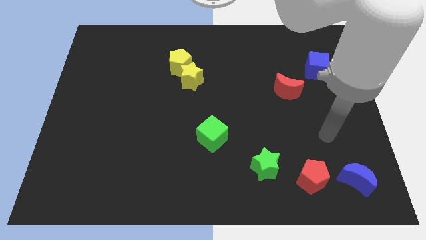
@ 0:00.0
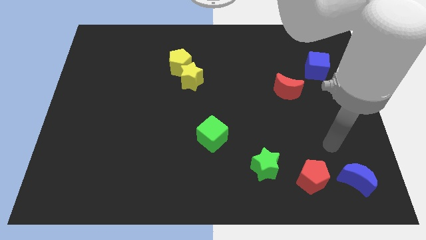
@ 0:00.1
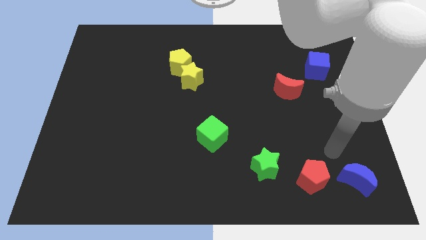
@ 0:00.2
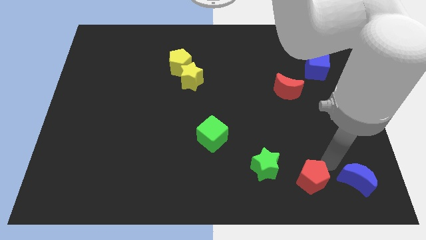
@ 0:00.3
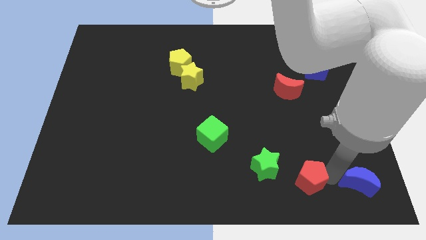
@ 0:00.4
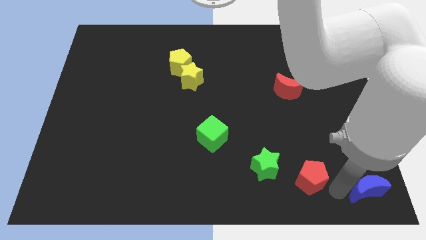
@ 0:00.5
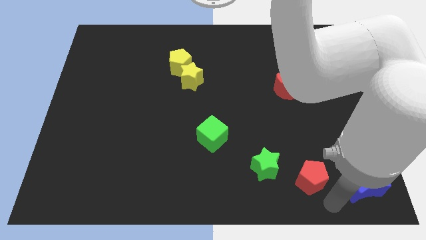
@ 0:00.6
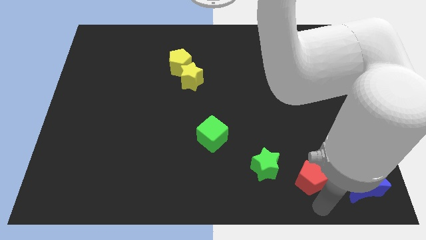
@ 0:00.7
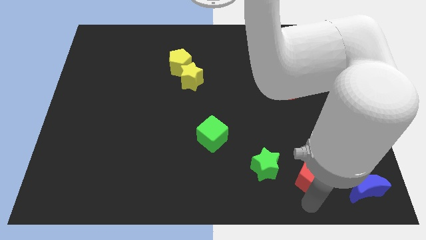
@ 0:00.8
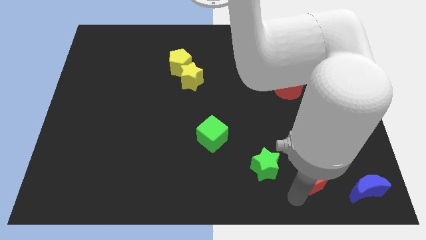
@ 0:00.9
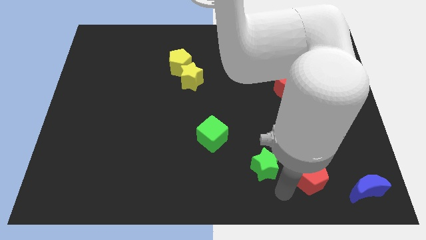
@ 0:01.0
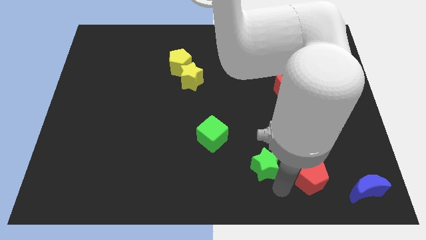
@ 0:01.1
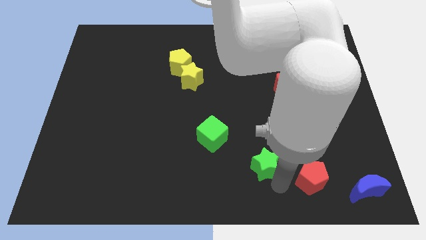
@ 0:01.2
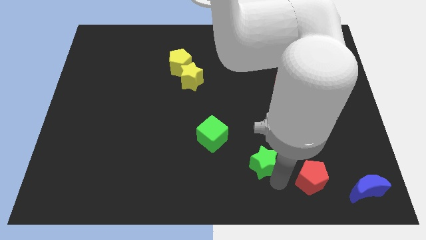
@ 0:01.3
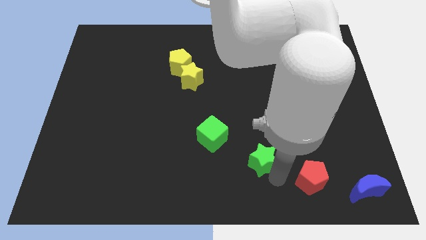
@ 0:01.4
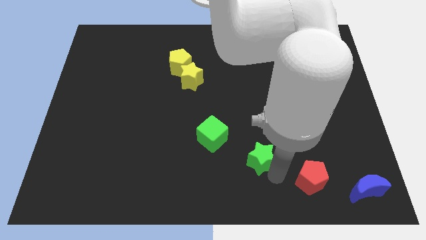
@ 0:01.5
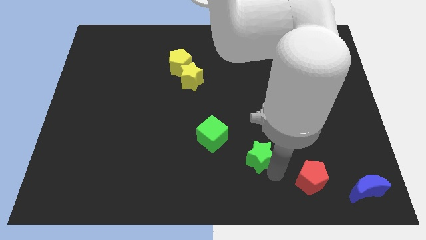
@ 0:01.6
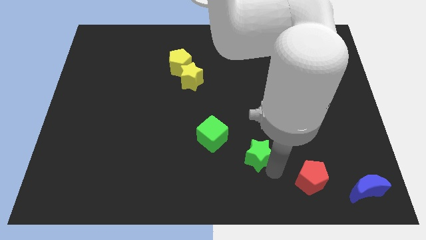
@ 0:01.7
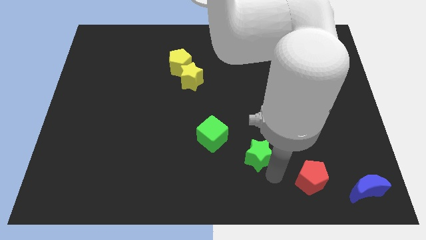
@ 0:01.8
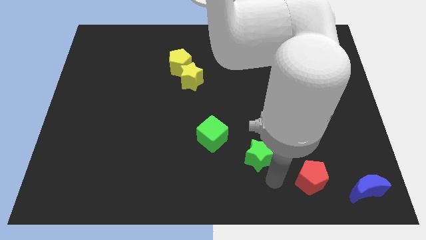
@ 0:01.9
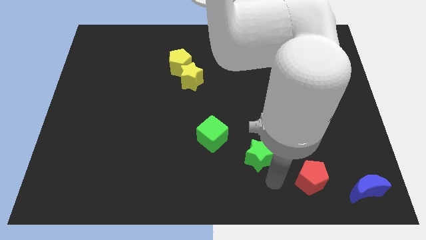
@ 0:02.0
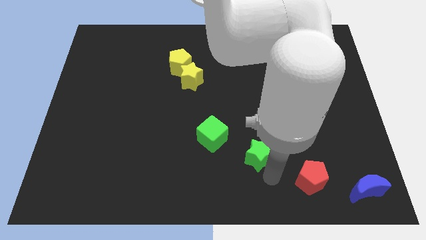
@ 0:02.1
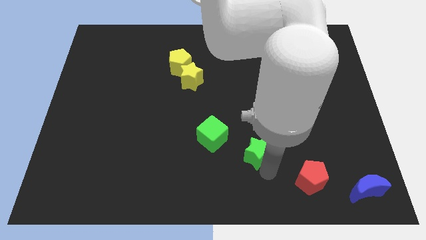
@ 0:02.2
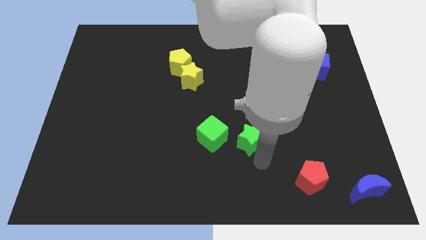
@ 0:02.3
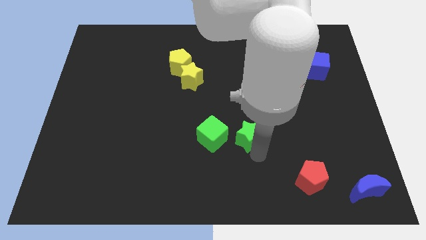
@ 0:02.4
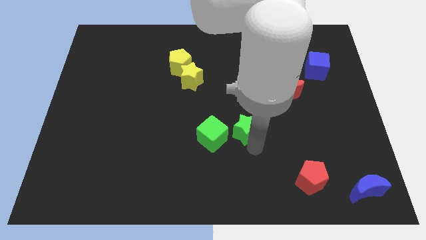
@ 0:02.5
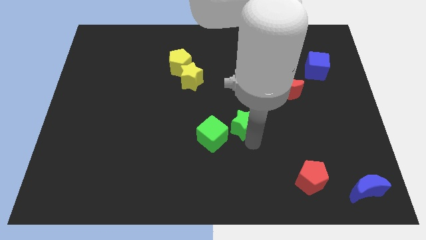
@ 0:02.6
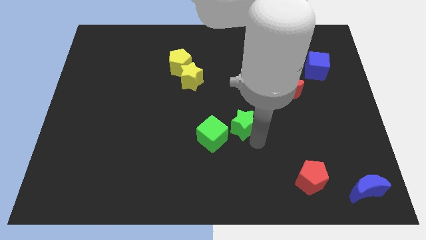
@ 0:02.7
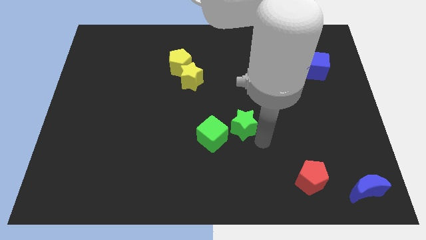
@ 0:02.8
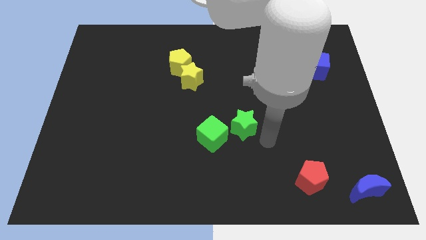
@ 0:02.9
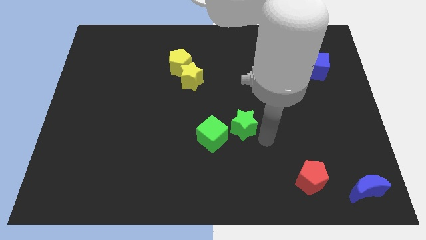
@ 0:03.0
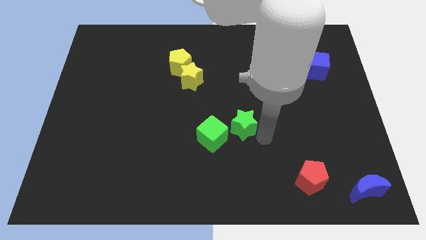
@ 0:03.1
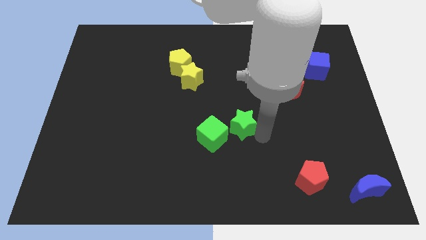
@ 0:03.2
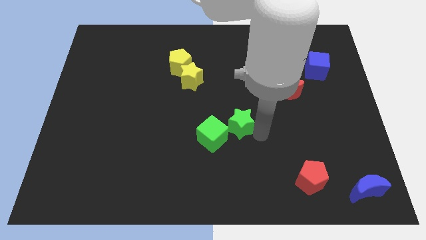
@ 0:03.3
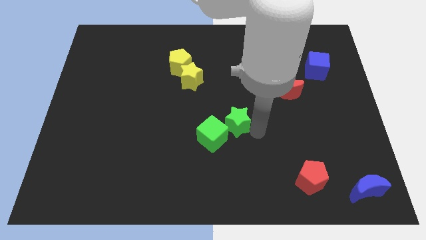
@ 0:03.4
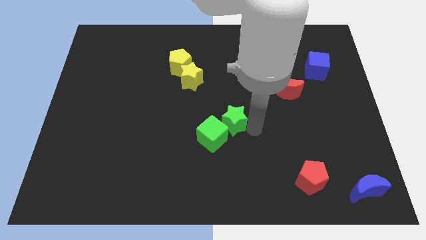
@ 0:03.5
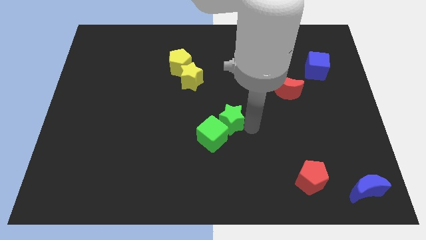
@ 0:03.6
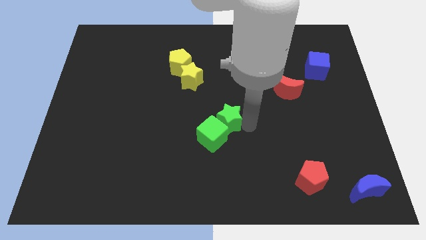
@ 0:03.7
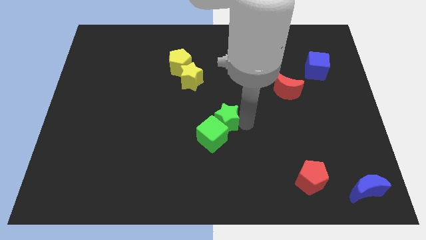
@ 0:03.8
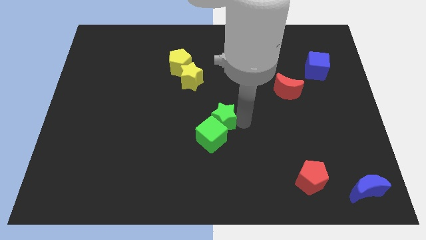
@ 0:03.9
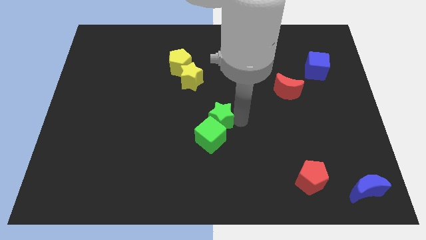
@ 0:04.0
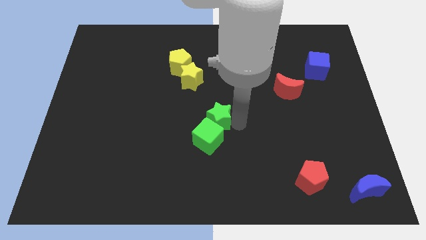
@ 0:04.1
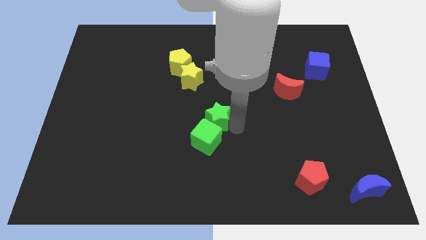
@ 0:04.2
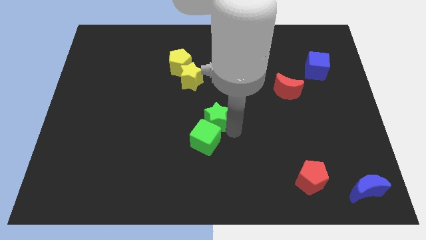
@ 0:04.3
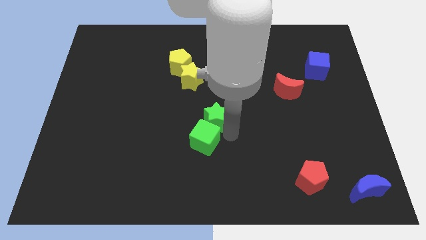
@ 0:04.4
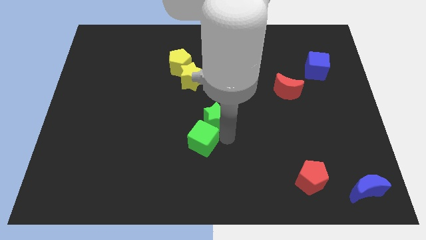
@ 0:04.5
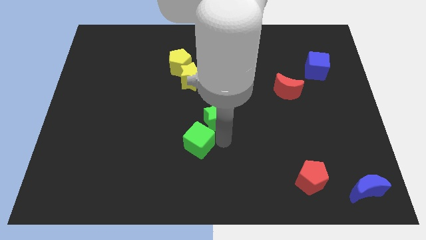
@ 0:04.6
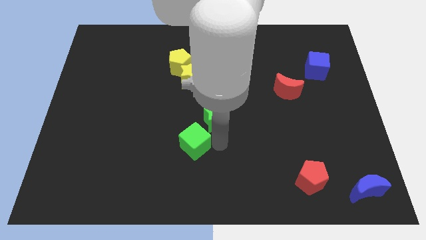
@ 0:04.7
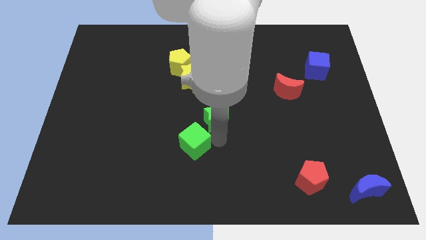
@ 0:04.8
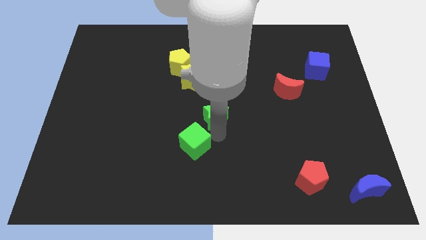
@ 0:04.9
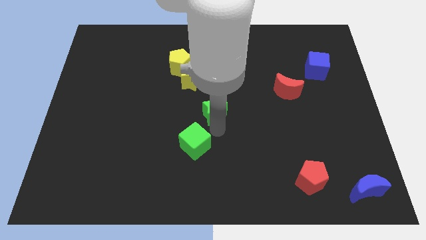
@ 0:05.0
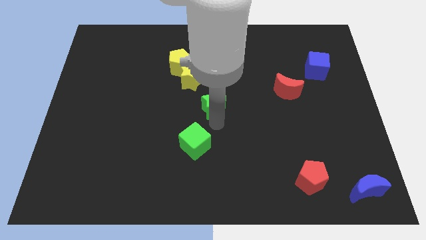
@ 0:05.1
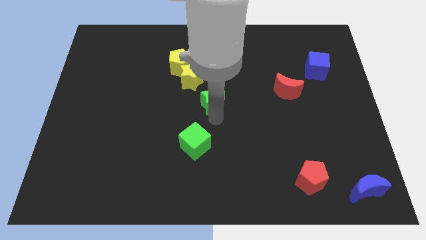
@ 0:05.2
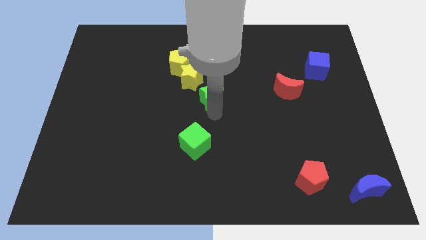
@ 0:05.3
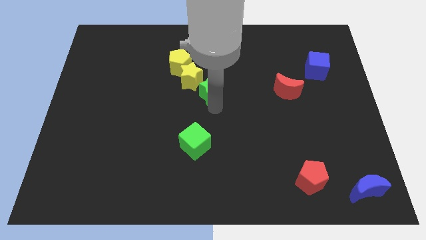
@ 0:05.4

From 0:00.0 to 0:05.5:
slide the green star towards the yellow star

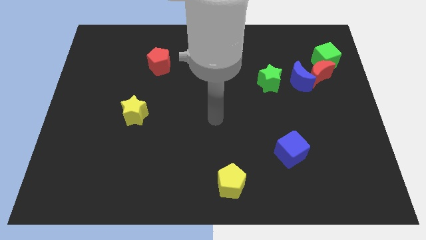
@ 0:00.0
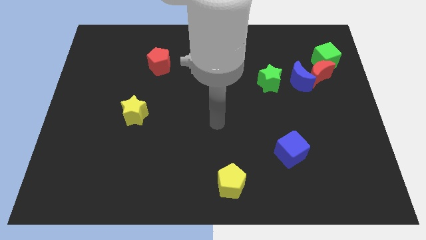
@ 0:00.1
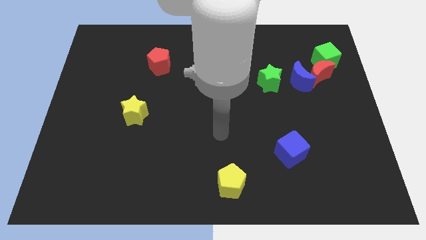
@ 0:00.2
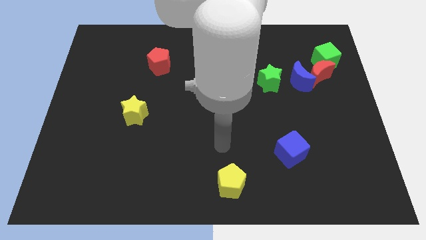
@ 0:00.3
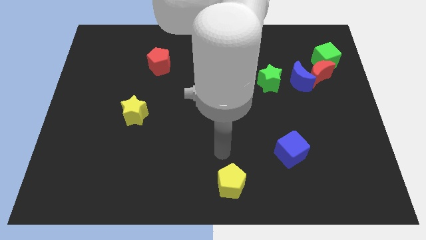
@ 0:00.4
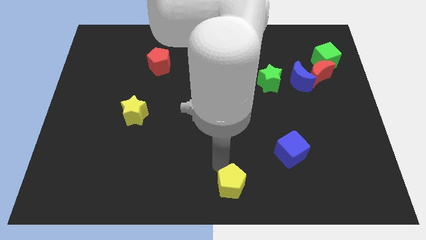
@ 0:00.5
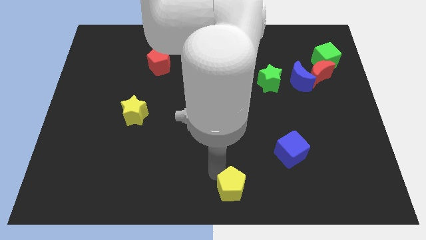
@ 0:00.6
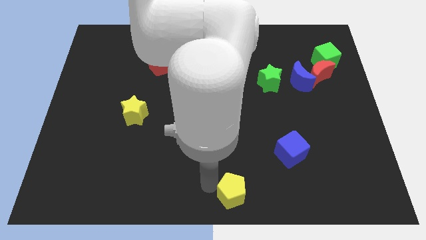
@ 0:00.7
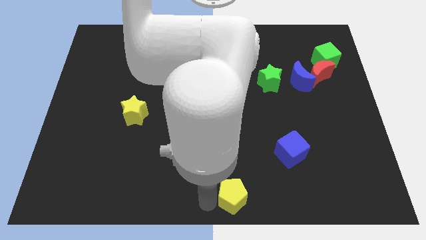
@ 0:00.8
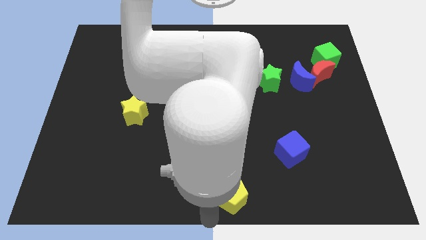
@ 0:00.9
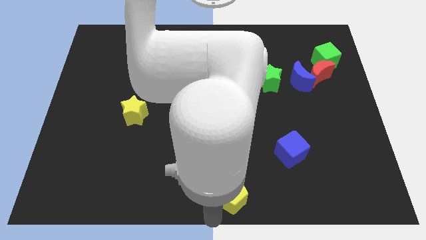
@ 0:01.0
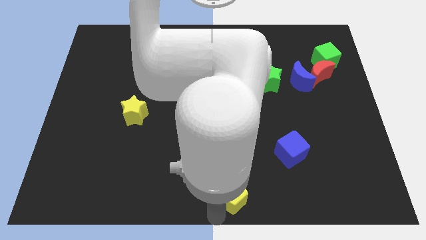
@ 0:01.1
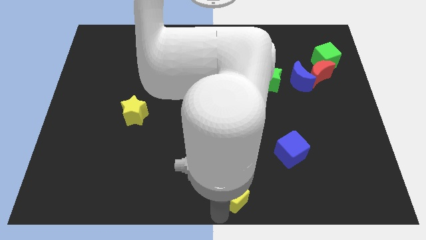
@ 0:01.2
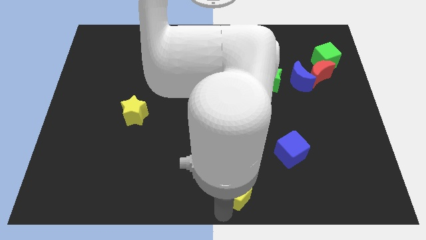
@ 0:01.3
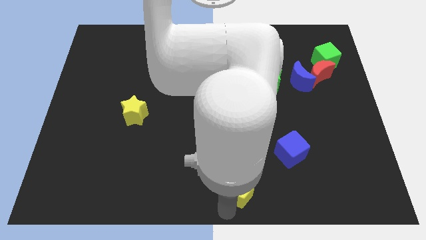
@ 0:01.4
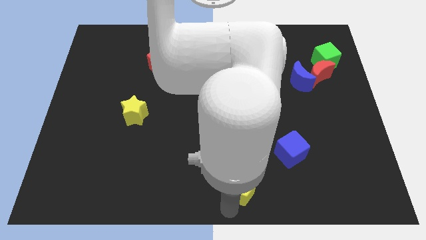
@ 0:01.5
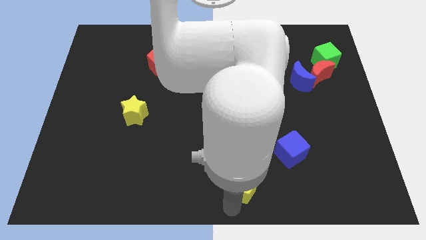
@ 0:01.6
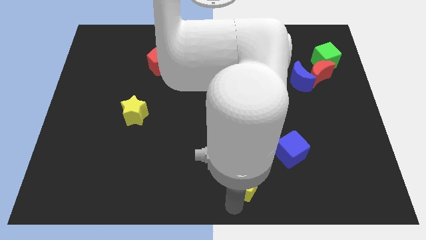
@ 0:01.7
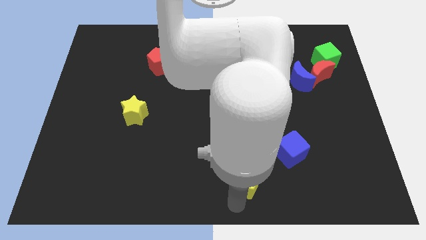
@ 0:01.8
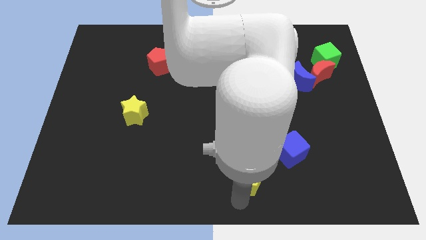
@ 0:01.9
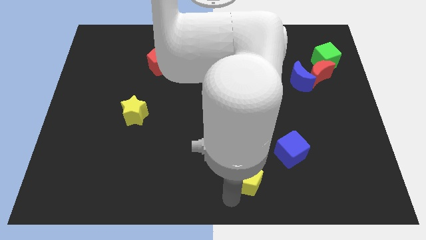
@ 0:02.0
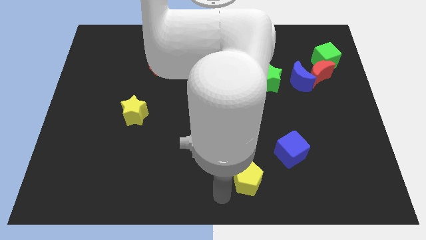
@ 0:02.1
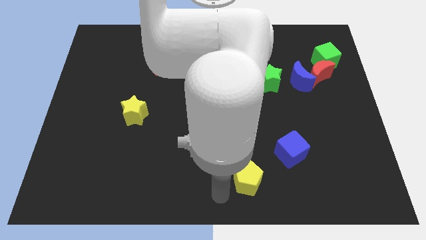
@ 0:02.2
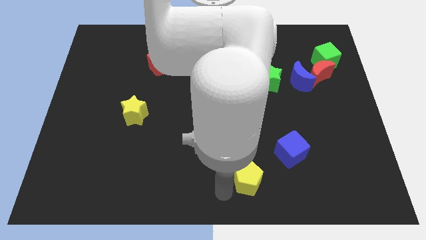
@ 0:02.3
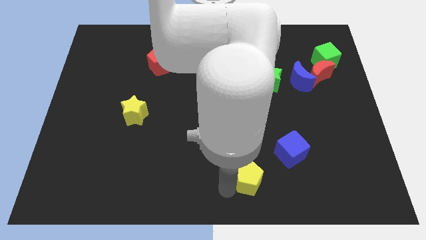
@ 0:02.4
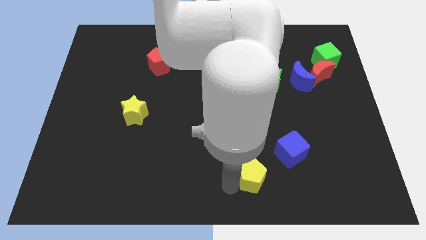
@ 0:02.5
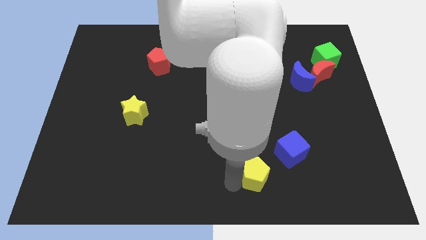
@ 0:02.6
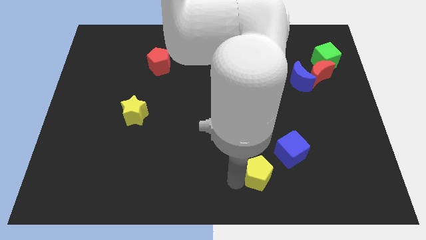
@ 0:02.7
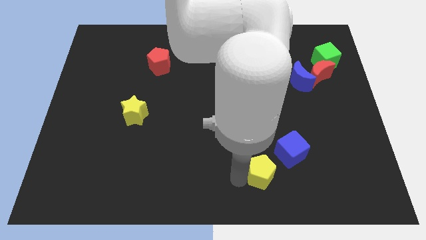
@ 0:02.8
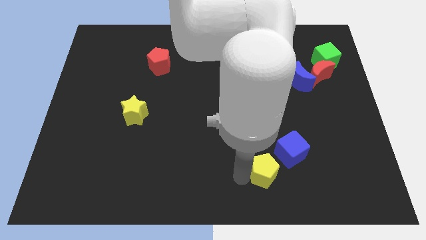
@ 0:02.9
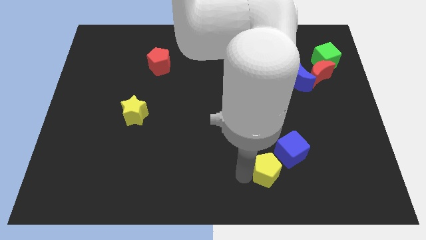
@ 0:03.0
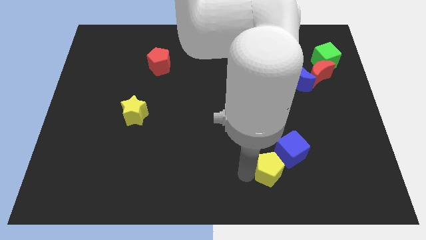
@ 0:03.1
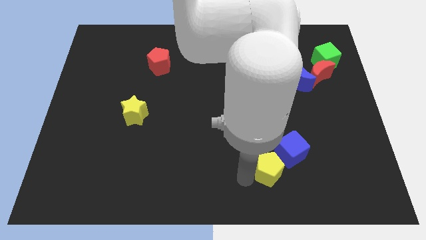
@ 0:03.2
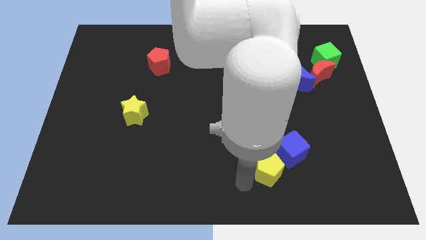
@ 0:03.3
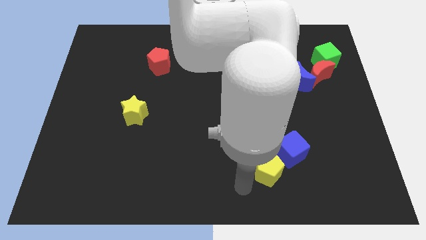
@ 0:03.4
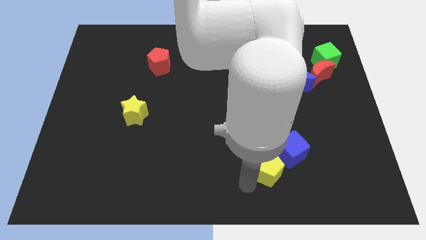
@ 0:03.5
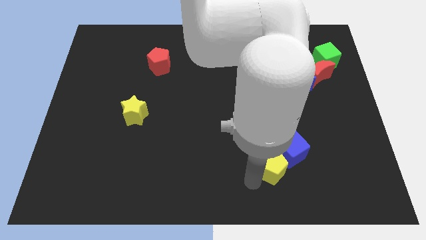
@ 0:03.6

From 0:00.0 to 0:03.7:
move the yellow pentagon towards the blue cube
